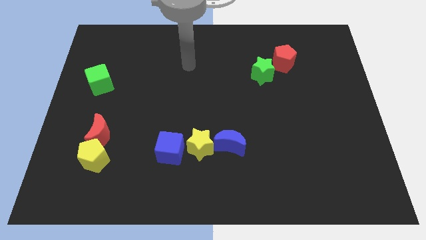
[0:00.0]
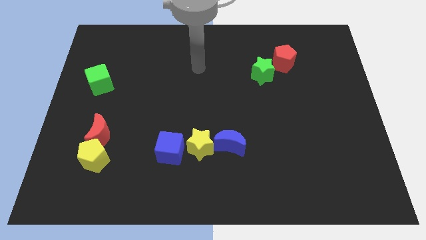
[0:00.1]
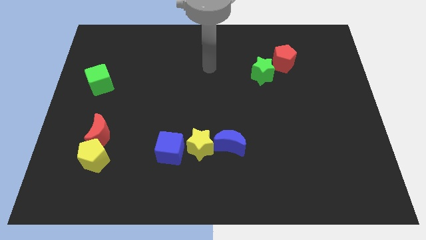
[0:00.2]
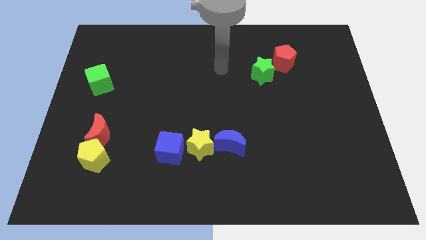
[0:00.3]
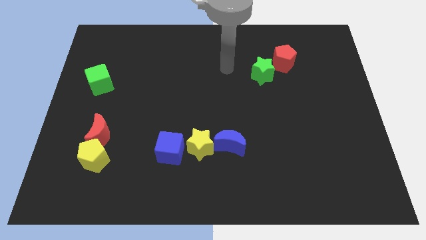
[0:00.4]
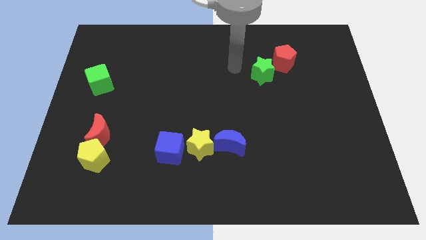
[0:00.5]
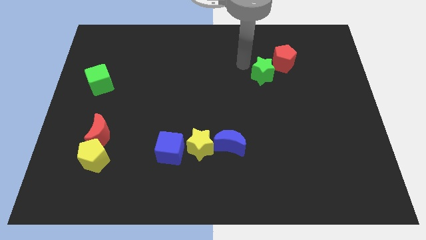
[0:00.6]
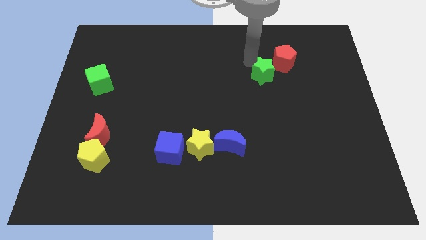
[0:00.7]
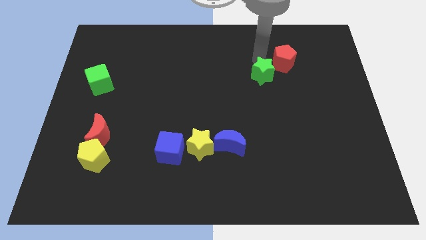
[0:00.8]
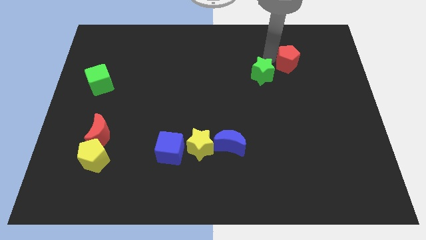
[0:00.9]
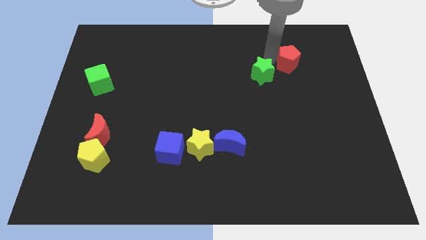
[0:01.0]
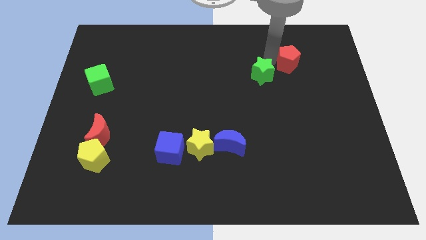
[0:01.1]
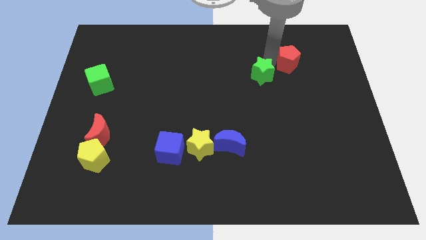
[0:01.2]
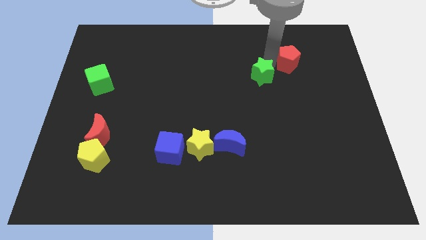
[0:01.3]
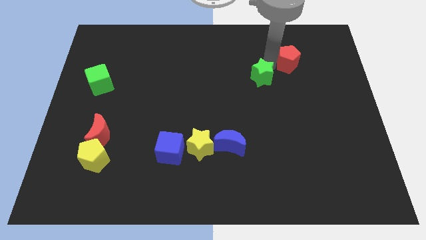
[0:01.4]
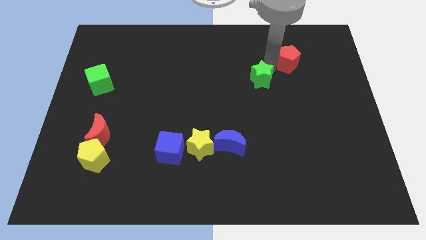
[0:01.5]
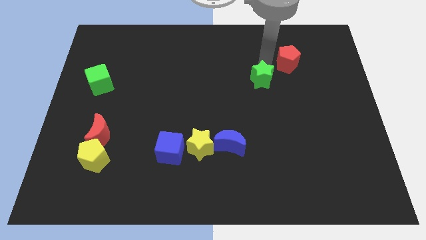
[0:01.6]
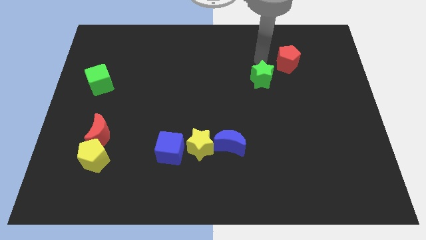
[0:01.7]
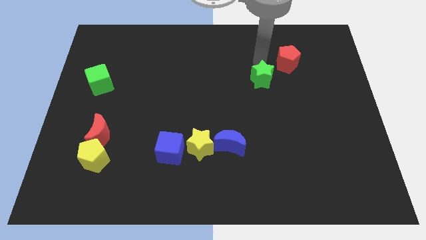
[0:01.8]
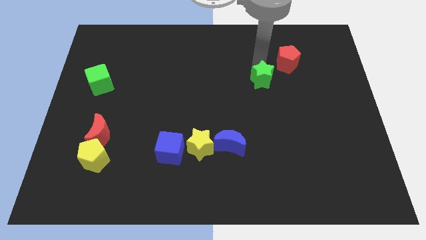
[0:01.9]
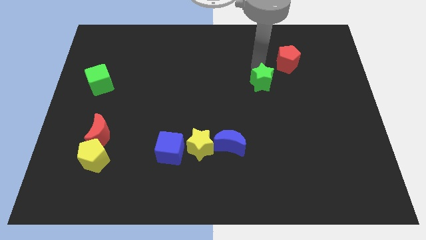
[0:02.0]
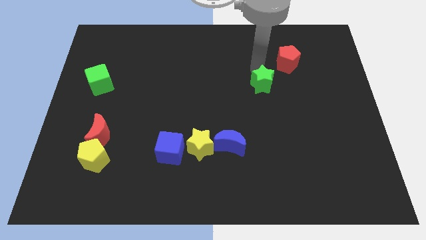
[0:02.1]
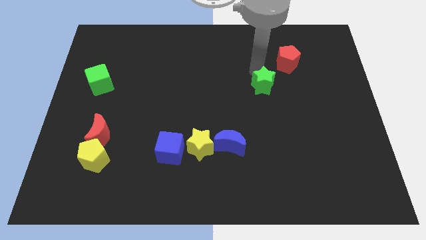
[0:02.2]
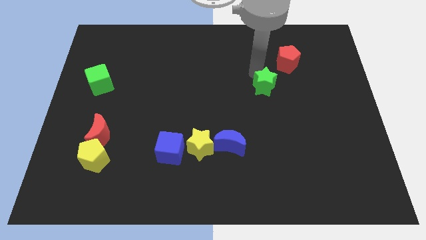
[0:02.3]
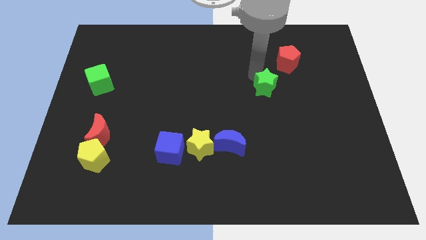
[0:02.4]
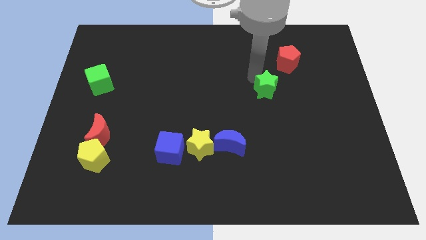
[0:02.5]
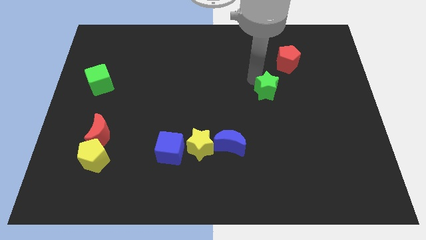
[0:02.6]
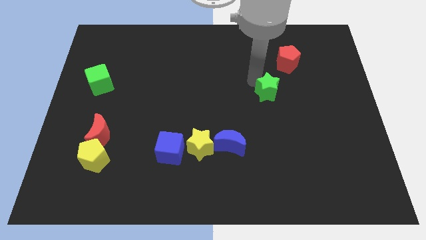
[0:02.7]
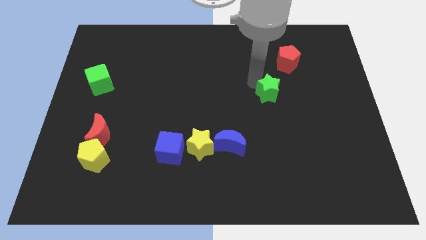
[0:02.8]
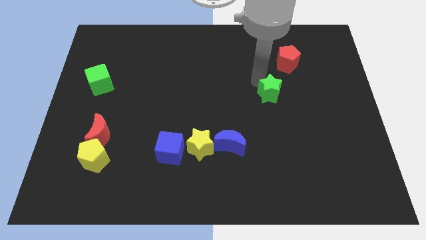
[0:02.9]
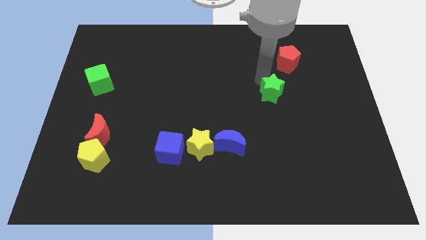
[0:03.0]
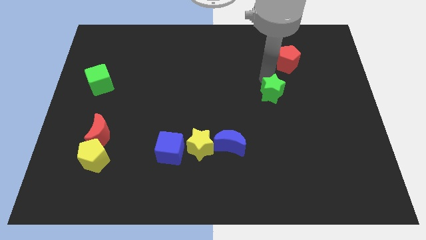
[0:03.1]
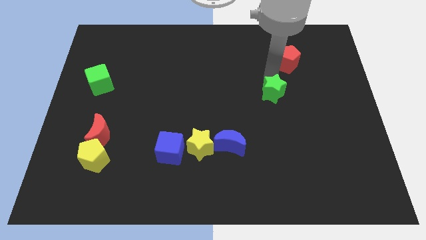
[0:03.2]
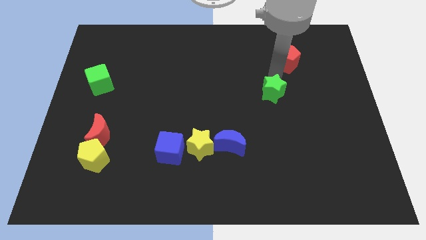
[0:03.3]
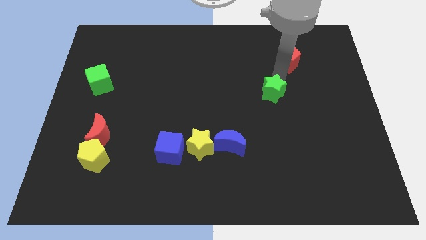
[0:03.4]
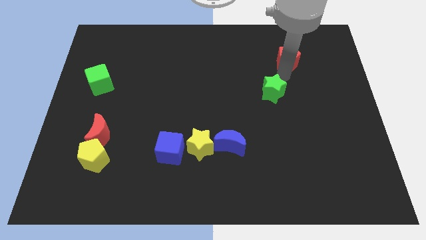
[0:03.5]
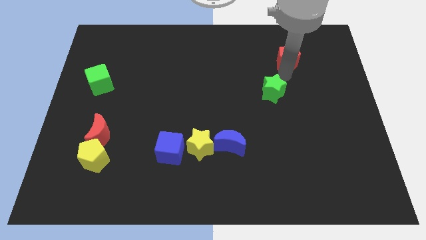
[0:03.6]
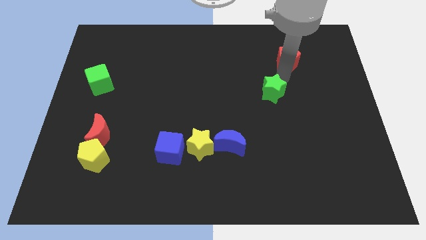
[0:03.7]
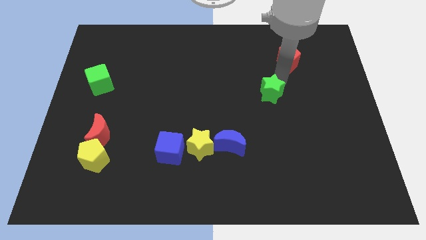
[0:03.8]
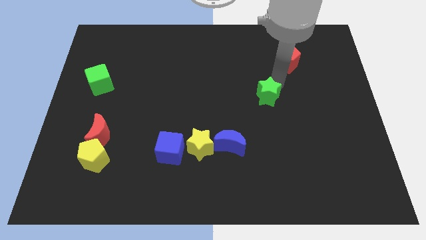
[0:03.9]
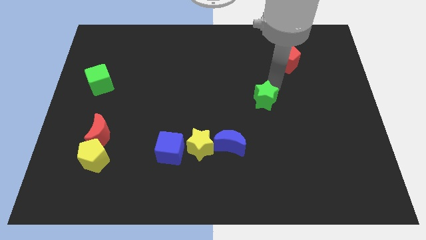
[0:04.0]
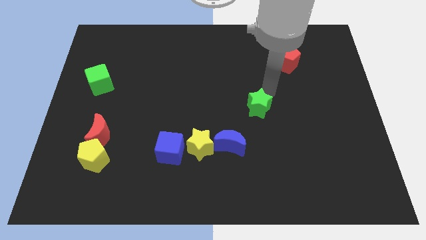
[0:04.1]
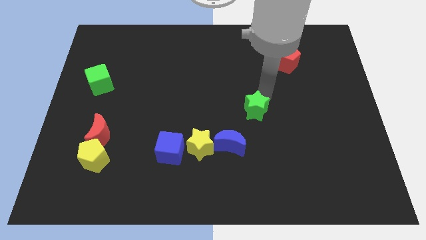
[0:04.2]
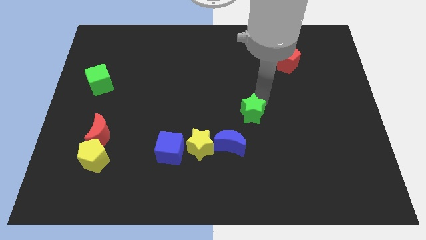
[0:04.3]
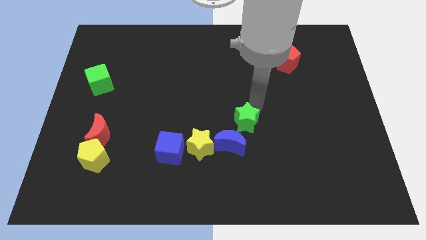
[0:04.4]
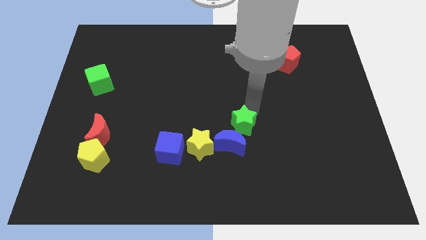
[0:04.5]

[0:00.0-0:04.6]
push the green star next to the blue moon

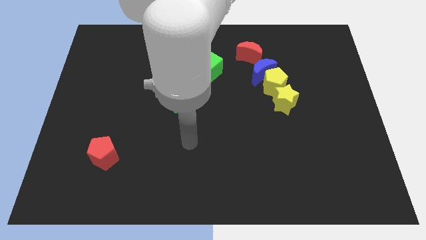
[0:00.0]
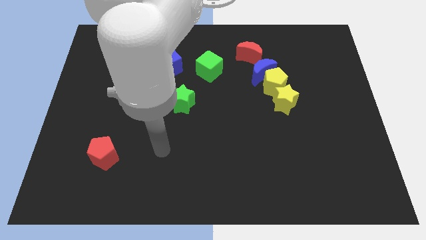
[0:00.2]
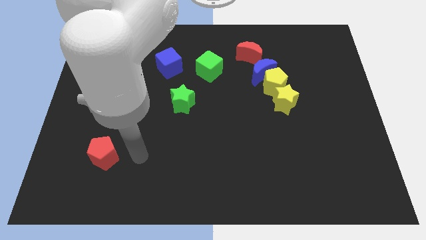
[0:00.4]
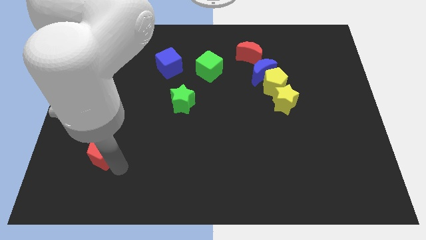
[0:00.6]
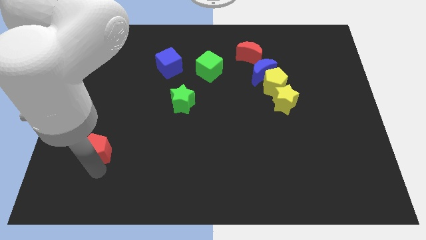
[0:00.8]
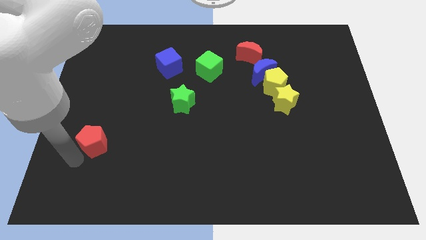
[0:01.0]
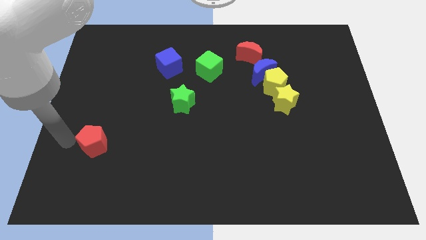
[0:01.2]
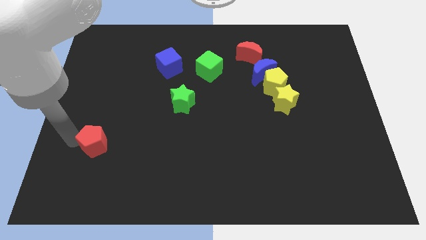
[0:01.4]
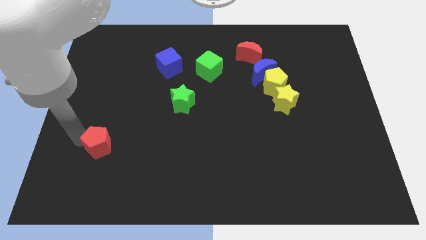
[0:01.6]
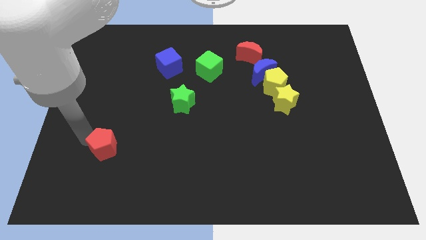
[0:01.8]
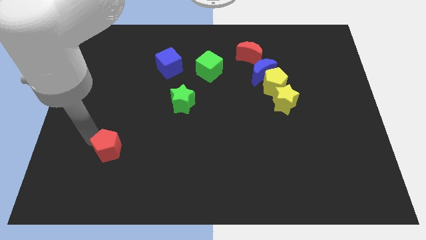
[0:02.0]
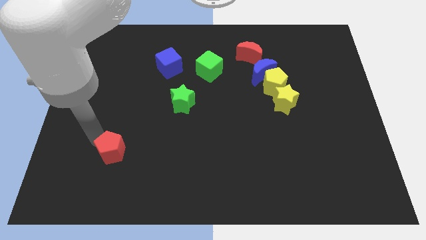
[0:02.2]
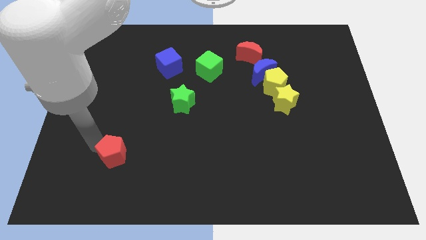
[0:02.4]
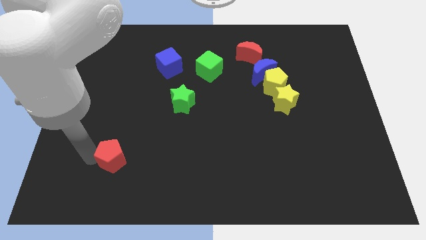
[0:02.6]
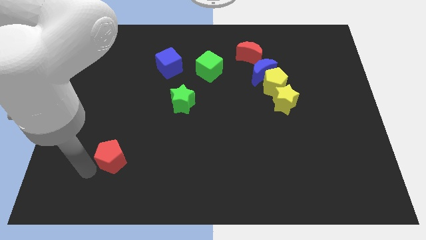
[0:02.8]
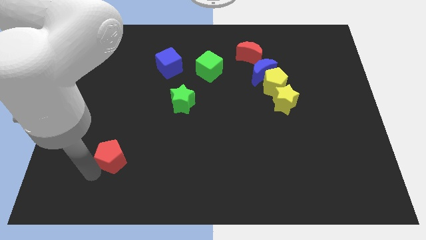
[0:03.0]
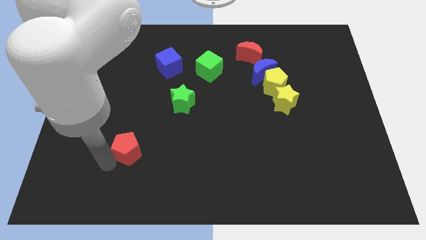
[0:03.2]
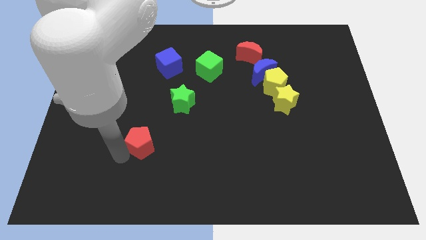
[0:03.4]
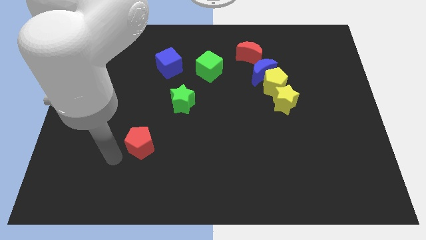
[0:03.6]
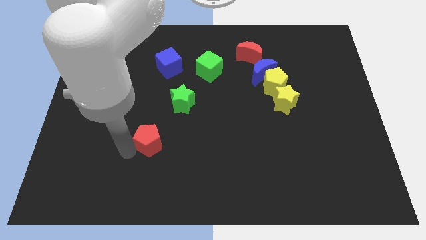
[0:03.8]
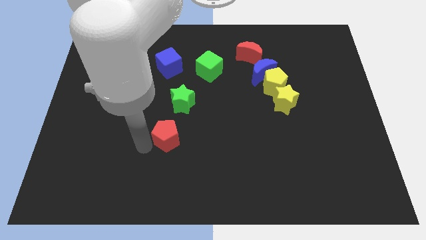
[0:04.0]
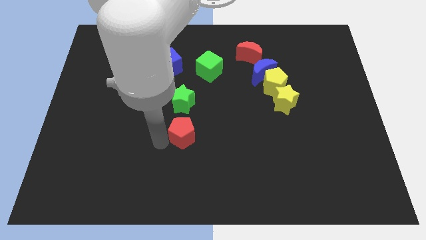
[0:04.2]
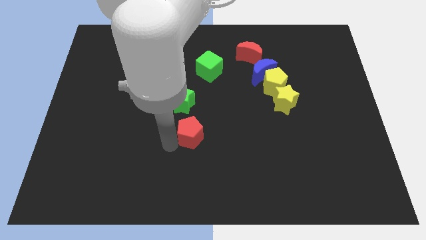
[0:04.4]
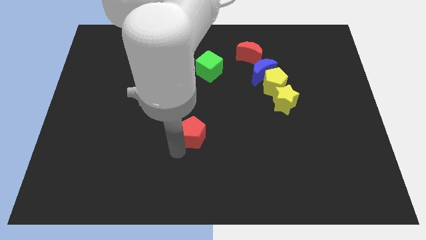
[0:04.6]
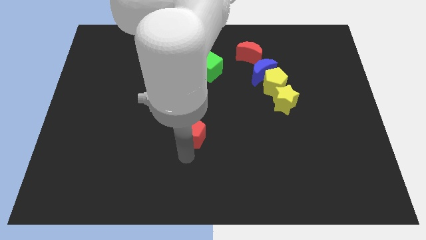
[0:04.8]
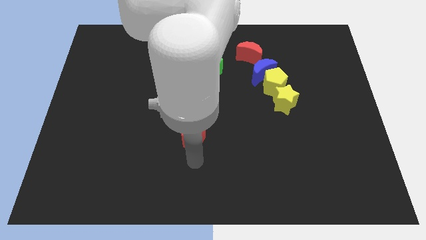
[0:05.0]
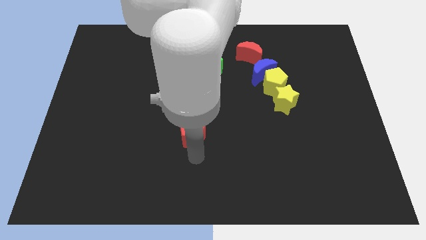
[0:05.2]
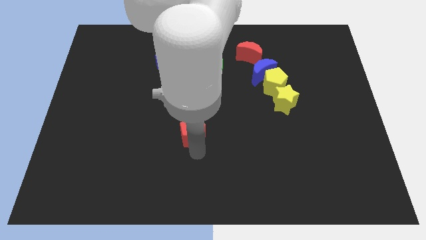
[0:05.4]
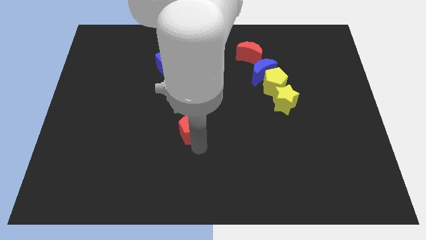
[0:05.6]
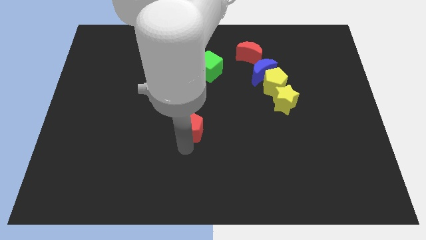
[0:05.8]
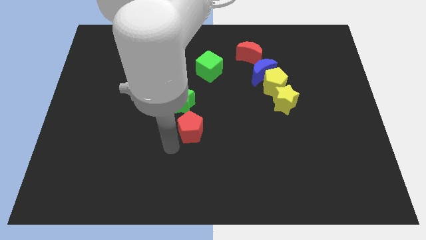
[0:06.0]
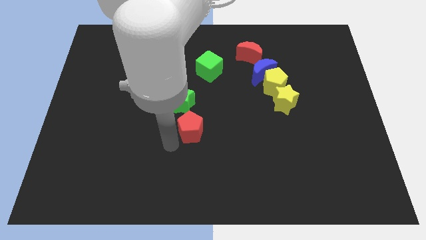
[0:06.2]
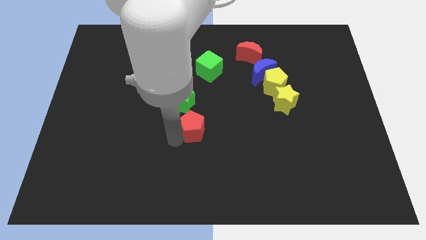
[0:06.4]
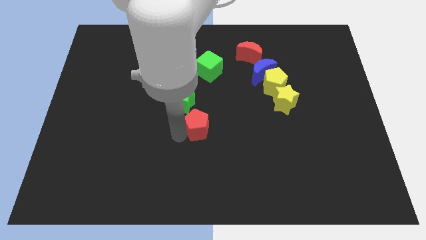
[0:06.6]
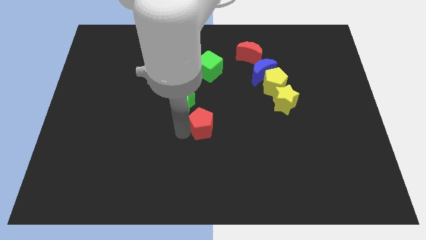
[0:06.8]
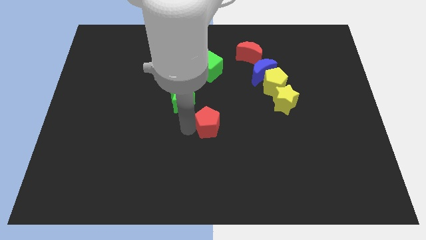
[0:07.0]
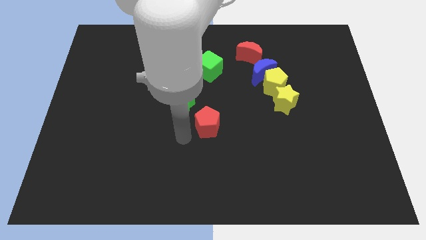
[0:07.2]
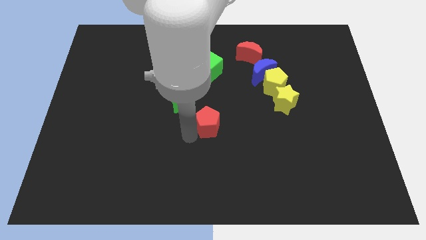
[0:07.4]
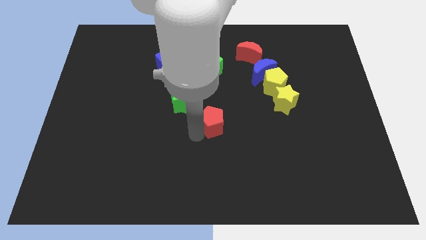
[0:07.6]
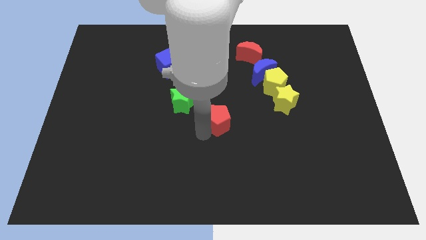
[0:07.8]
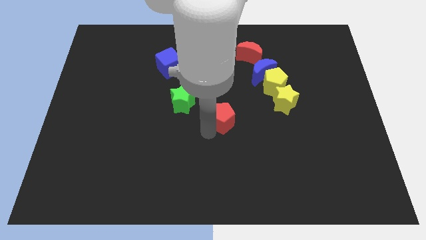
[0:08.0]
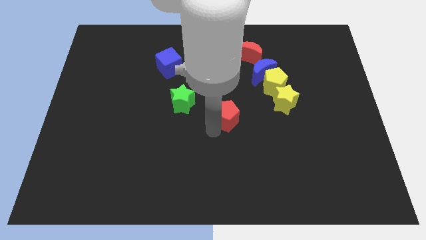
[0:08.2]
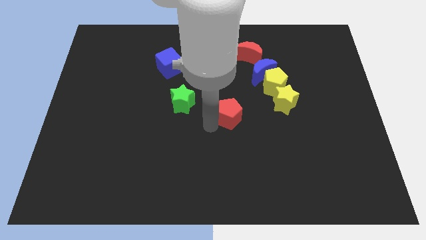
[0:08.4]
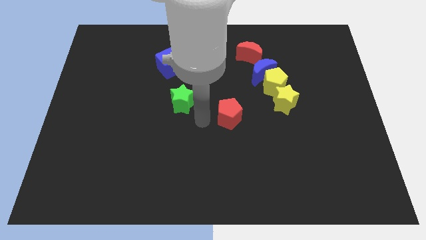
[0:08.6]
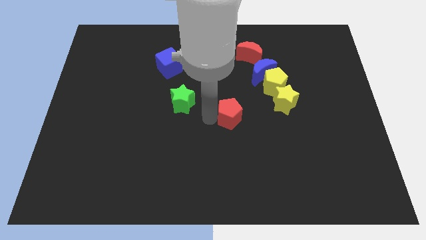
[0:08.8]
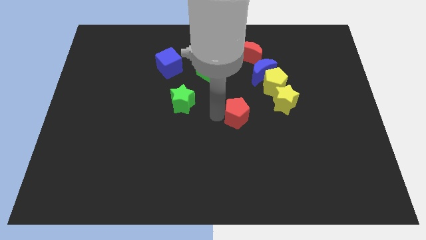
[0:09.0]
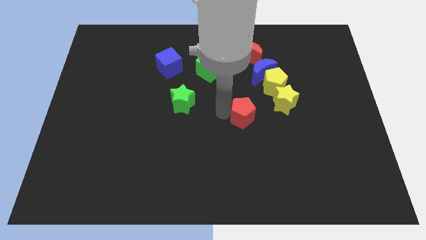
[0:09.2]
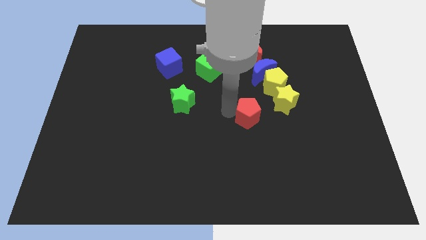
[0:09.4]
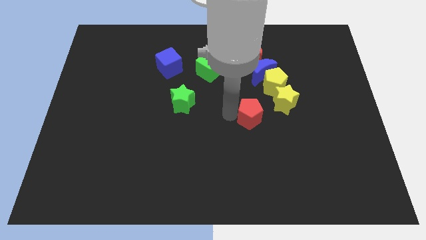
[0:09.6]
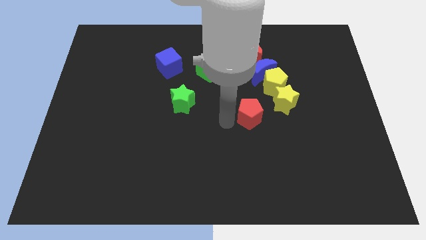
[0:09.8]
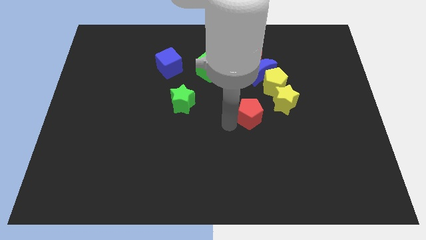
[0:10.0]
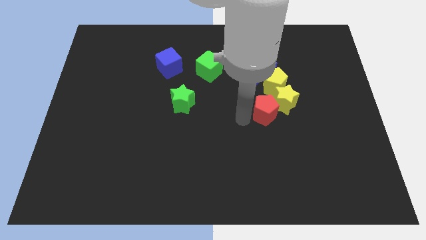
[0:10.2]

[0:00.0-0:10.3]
push the red pentagon next to the yellow star
